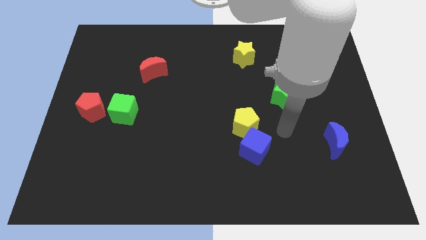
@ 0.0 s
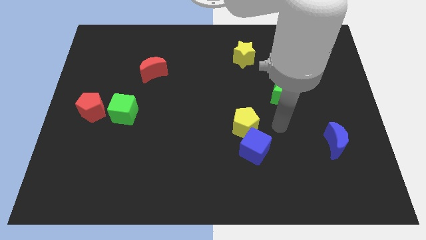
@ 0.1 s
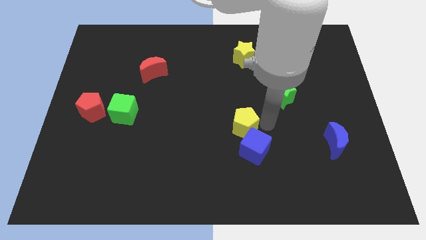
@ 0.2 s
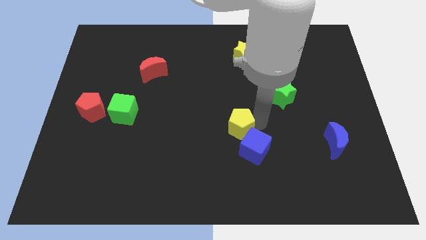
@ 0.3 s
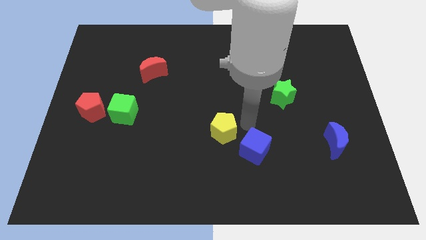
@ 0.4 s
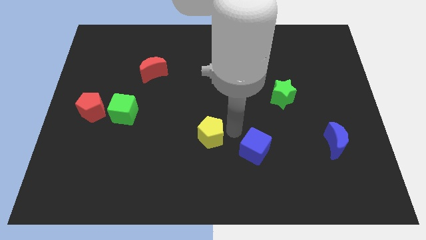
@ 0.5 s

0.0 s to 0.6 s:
pull the blue cube apart from the yellow pentagon

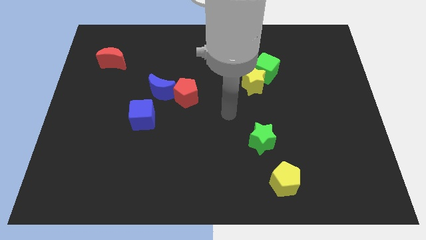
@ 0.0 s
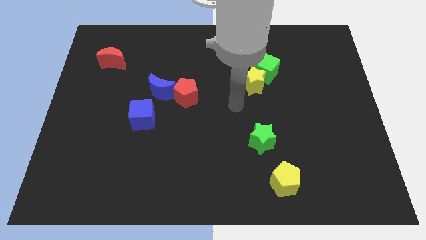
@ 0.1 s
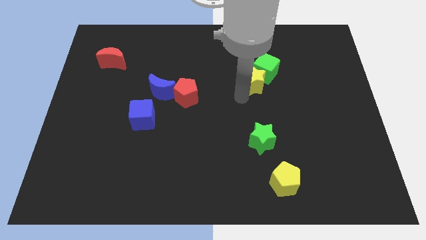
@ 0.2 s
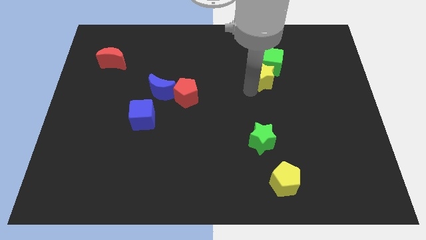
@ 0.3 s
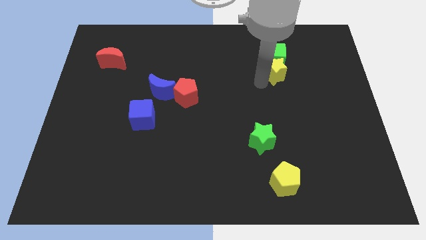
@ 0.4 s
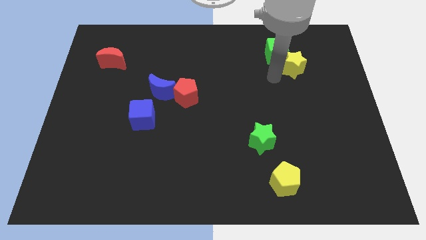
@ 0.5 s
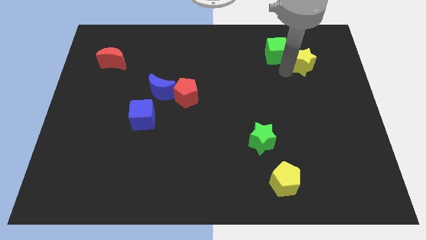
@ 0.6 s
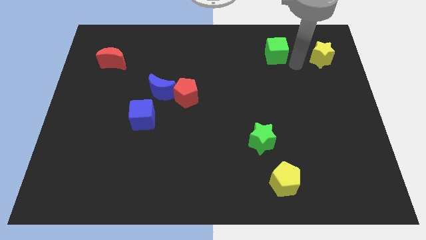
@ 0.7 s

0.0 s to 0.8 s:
pull the green cube apart from the yellow star

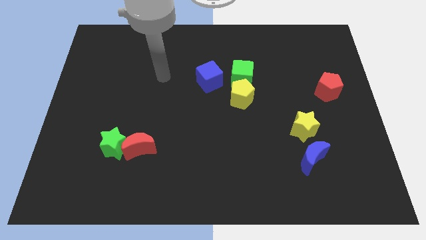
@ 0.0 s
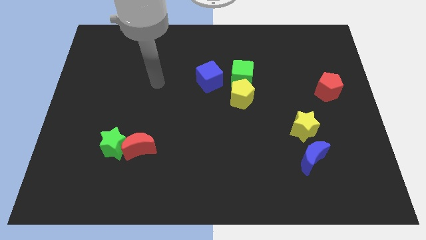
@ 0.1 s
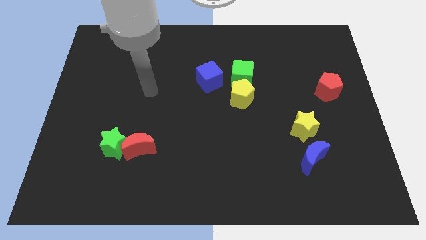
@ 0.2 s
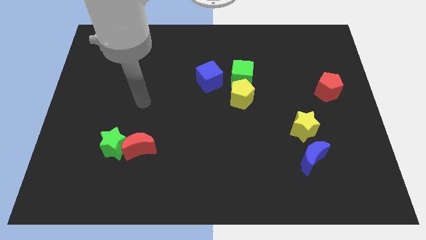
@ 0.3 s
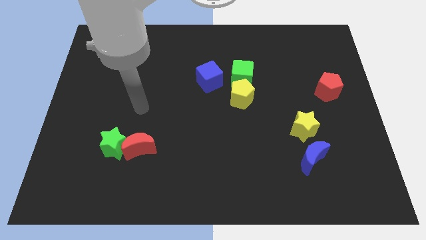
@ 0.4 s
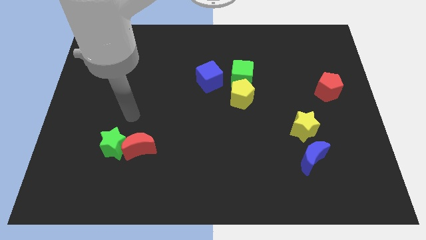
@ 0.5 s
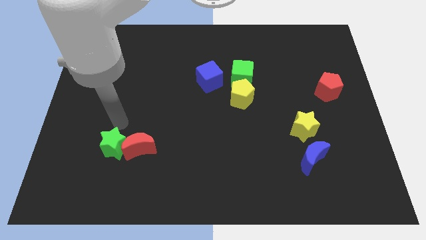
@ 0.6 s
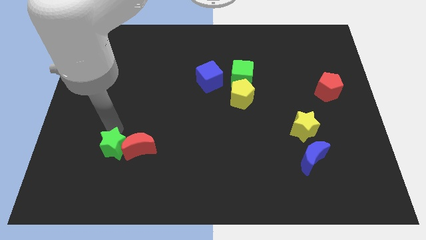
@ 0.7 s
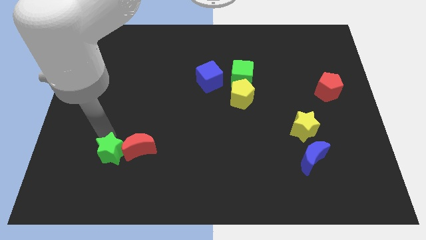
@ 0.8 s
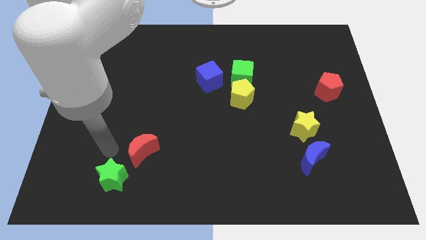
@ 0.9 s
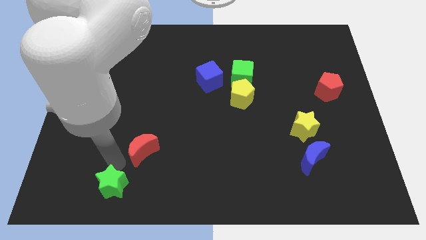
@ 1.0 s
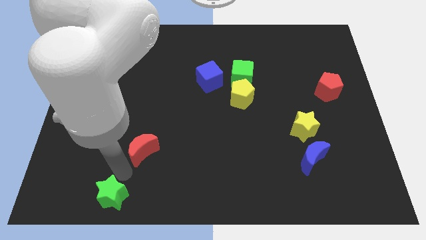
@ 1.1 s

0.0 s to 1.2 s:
move the red moon away from the green star

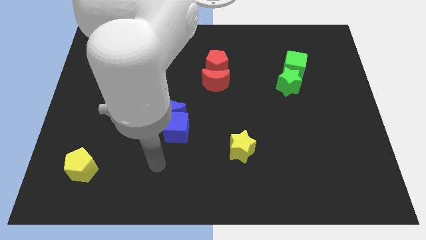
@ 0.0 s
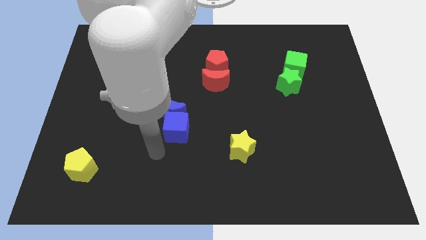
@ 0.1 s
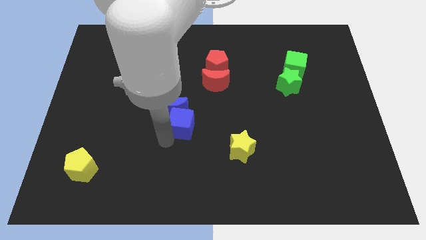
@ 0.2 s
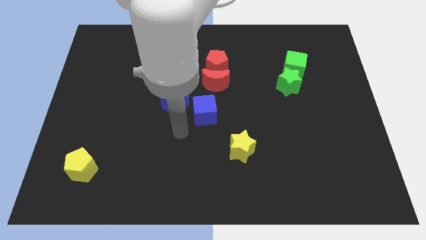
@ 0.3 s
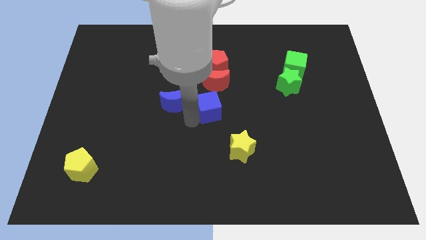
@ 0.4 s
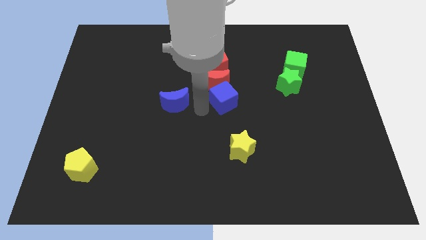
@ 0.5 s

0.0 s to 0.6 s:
pull the blue moon apart from the blue cube

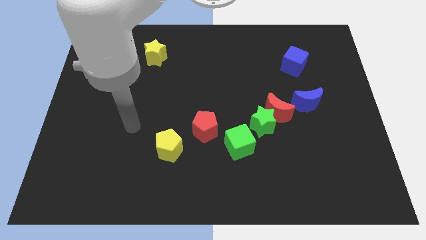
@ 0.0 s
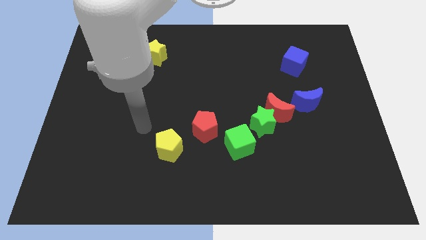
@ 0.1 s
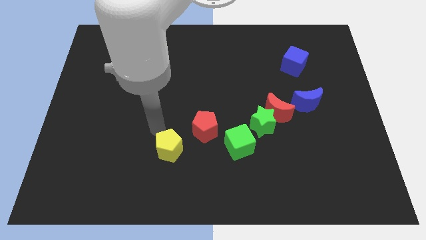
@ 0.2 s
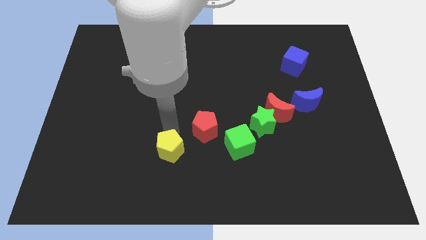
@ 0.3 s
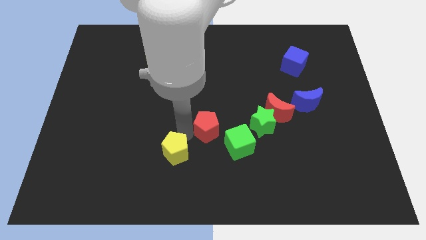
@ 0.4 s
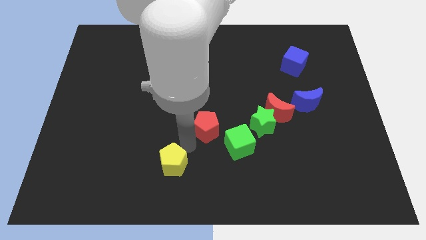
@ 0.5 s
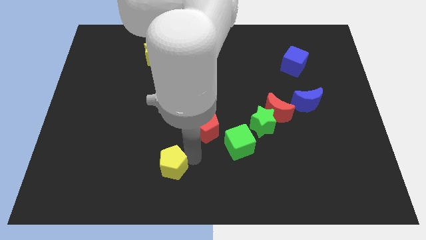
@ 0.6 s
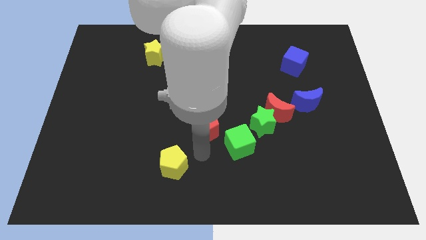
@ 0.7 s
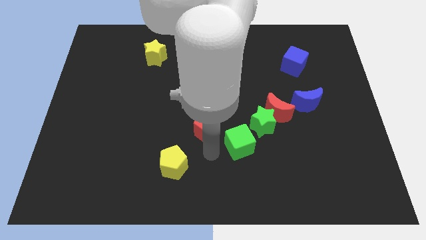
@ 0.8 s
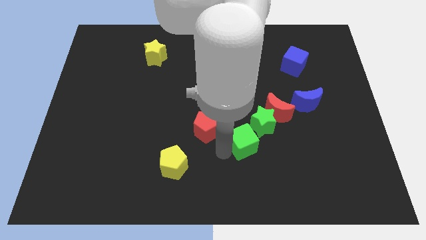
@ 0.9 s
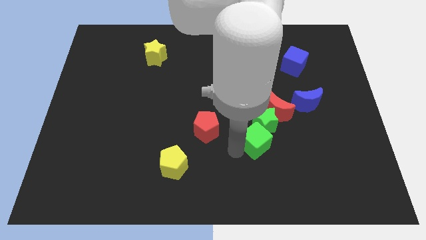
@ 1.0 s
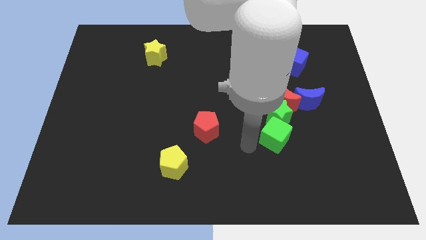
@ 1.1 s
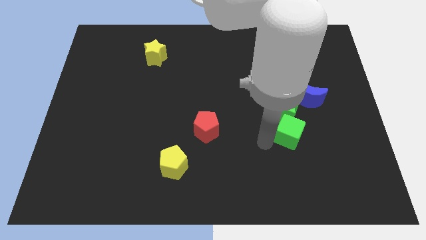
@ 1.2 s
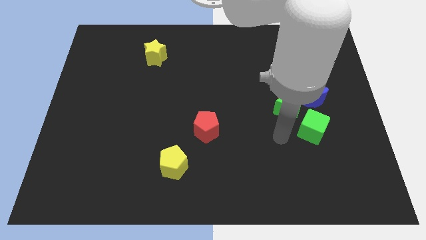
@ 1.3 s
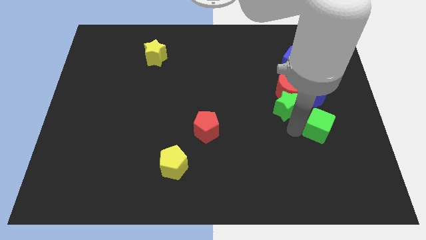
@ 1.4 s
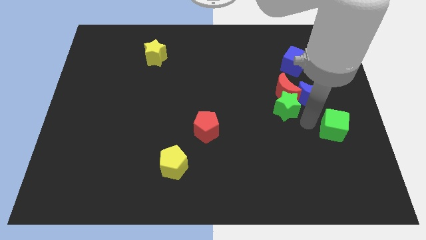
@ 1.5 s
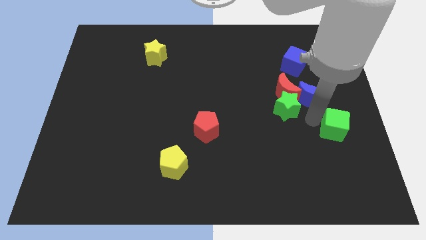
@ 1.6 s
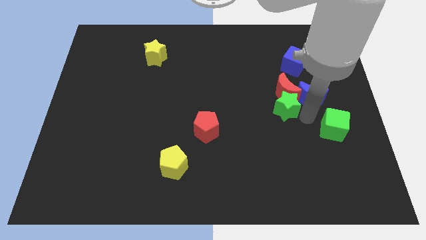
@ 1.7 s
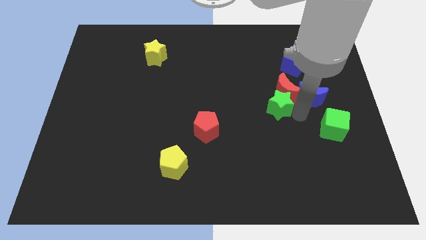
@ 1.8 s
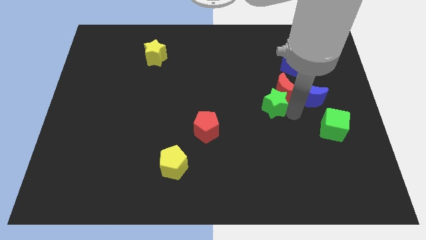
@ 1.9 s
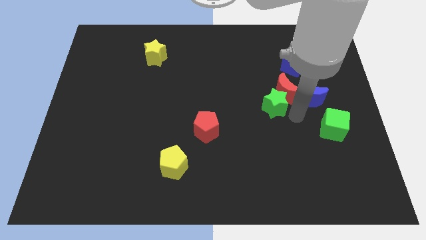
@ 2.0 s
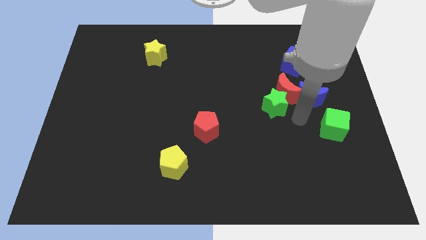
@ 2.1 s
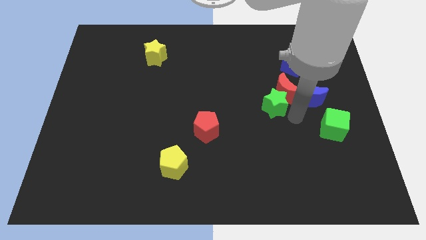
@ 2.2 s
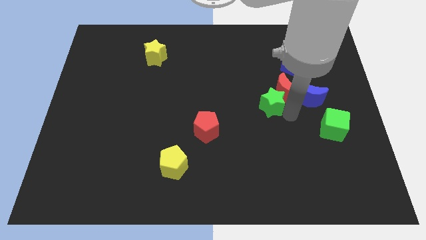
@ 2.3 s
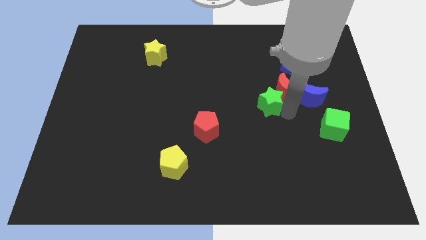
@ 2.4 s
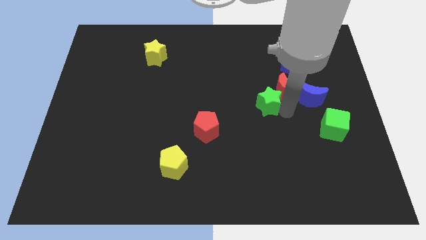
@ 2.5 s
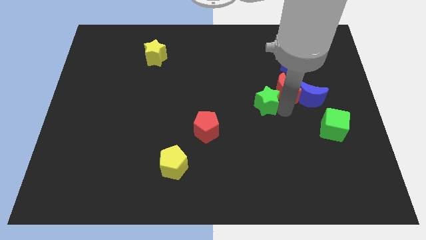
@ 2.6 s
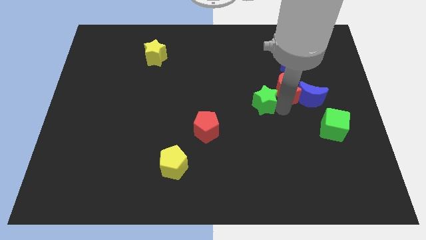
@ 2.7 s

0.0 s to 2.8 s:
pull the green star apart from the red moon and green cube

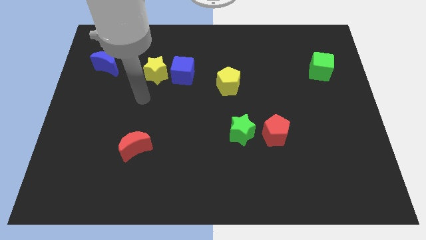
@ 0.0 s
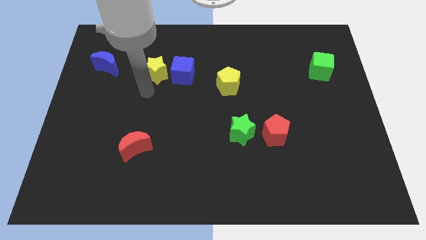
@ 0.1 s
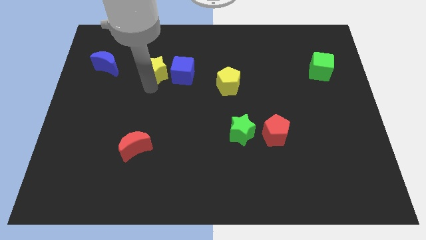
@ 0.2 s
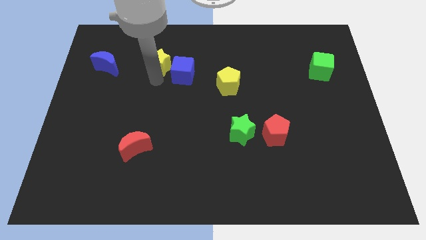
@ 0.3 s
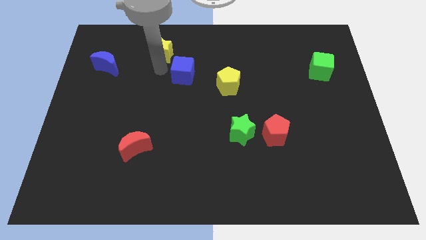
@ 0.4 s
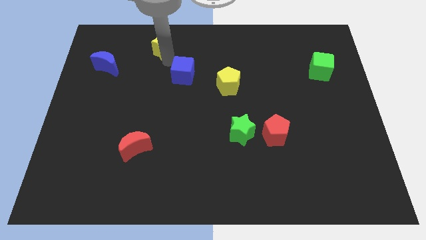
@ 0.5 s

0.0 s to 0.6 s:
separate the blue cube from the yellow star

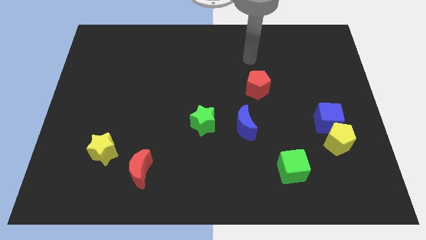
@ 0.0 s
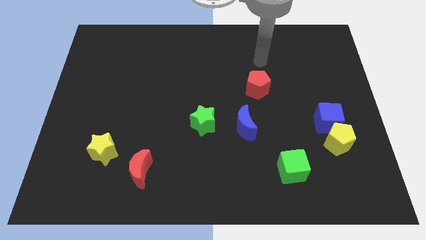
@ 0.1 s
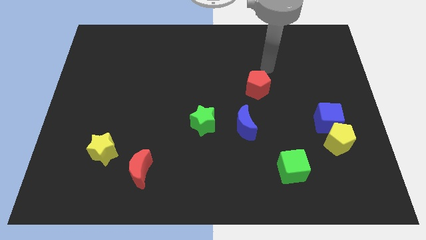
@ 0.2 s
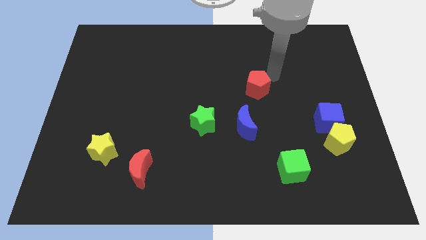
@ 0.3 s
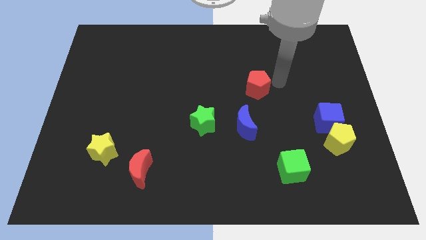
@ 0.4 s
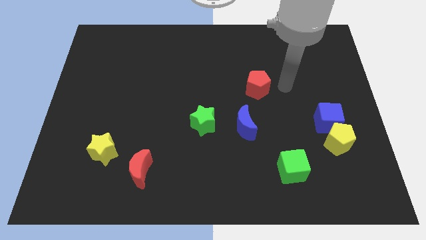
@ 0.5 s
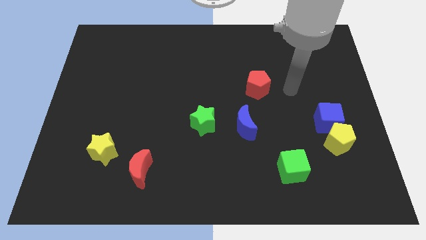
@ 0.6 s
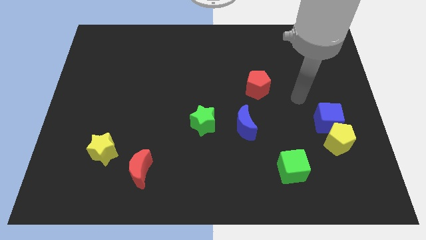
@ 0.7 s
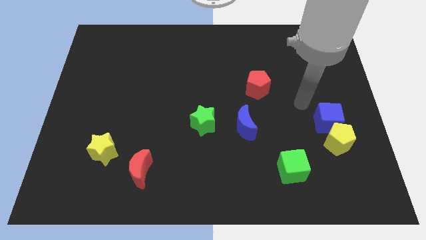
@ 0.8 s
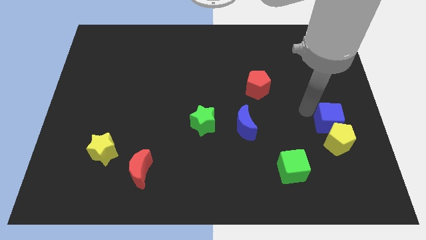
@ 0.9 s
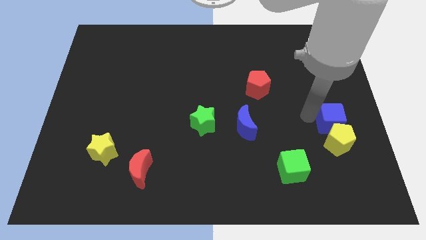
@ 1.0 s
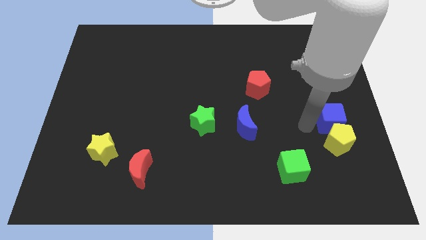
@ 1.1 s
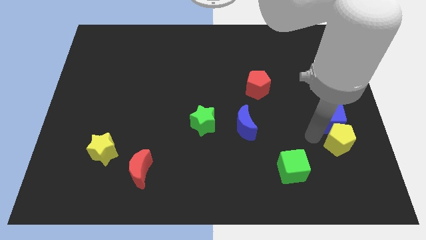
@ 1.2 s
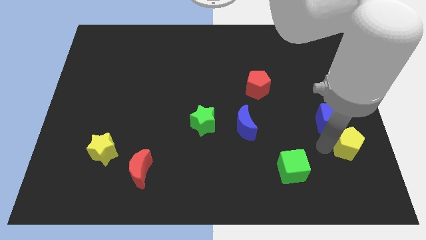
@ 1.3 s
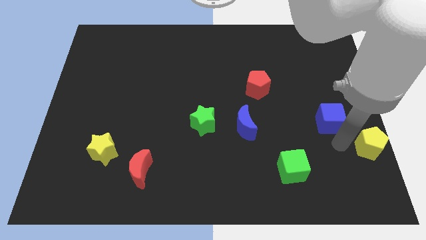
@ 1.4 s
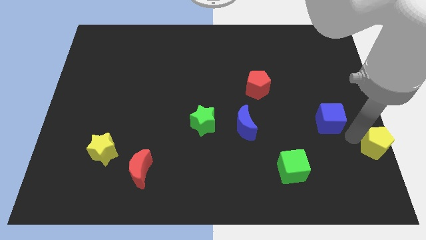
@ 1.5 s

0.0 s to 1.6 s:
move the blue cube away from the yellow pentagon

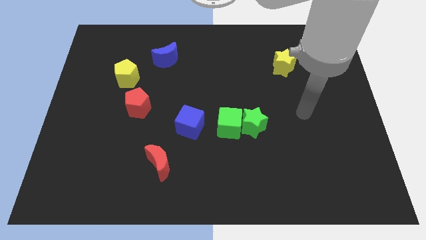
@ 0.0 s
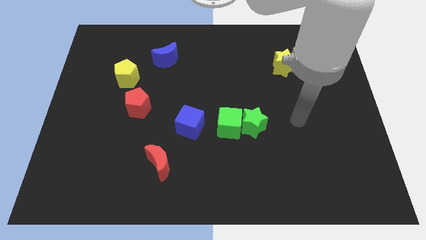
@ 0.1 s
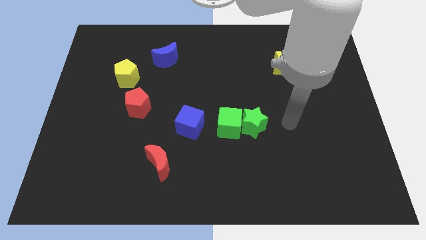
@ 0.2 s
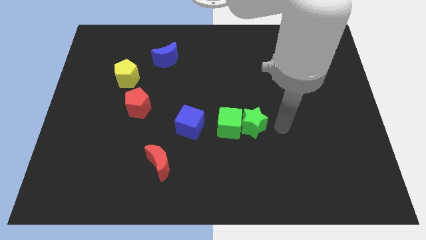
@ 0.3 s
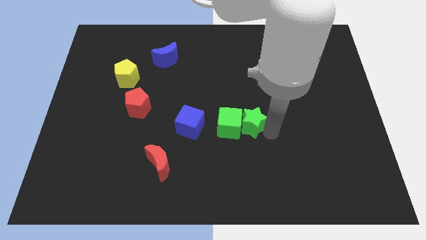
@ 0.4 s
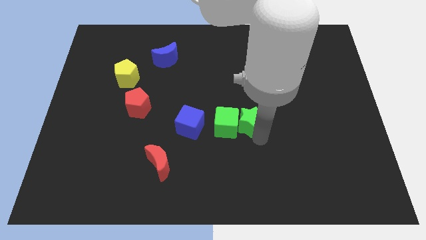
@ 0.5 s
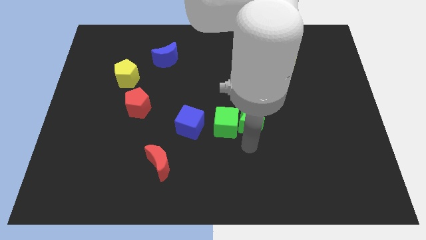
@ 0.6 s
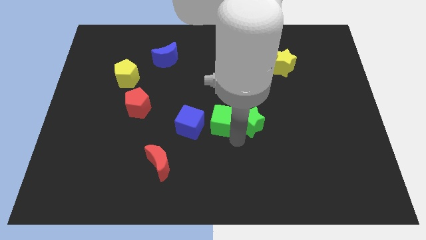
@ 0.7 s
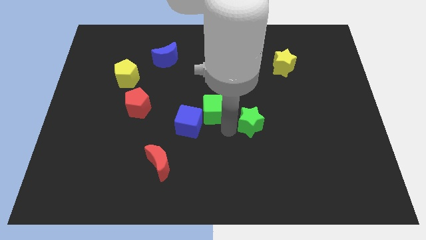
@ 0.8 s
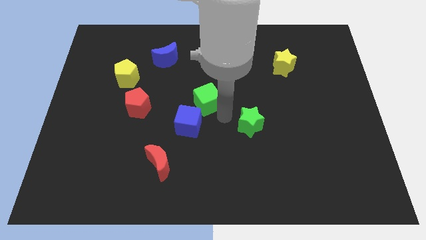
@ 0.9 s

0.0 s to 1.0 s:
move the green star away from the green cube
